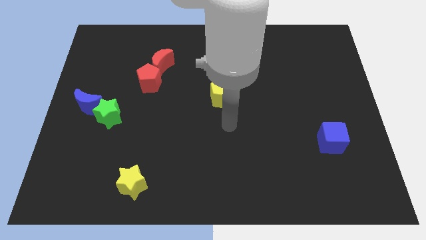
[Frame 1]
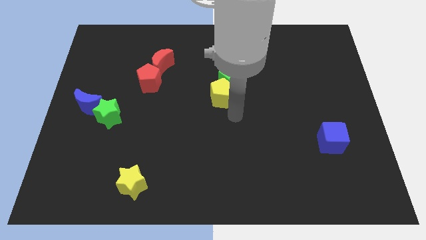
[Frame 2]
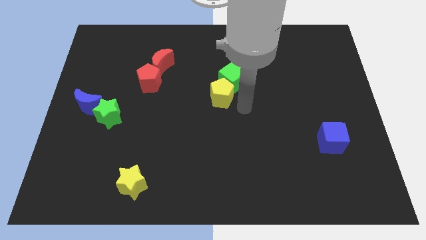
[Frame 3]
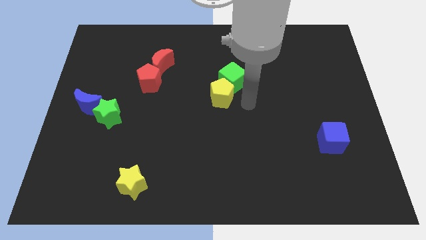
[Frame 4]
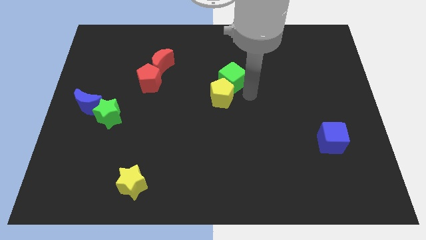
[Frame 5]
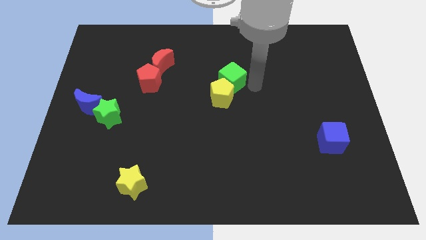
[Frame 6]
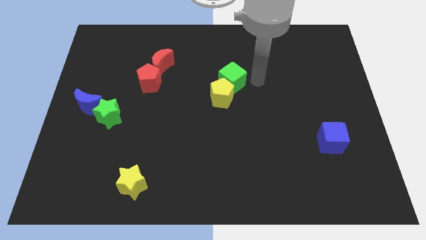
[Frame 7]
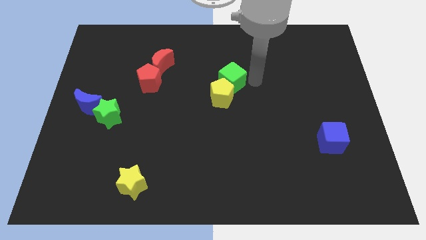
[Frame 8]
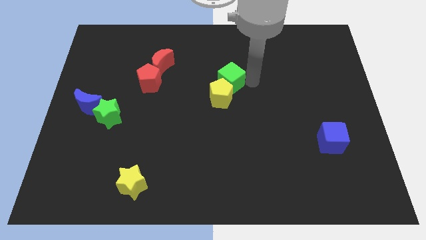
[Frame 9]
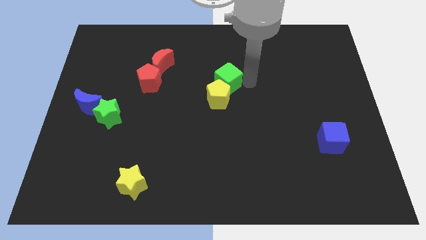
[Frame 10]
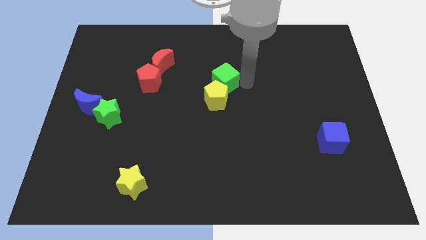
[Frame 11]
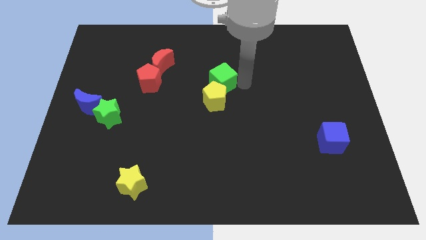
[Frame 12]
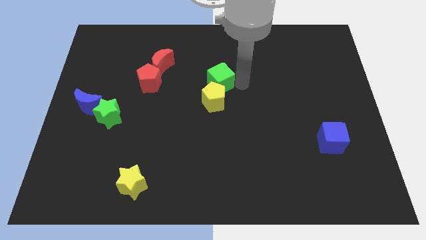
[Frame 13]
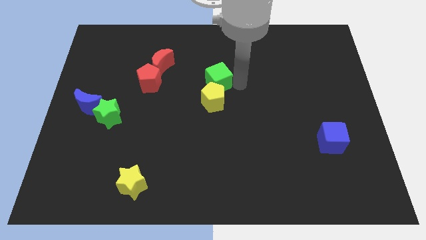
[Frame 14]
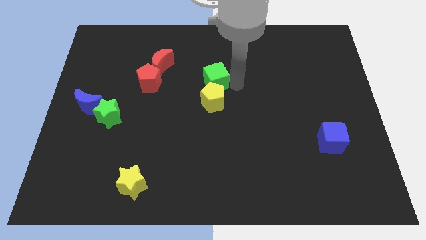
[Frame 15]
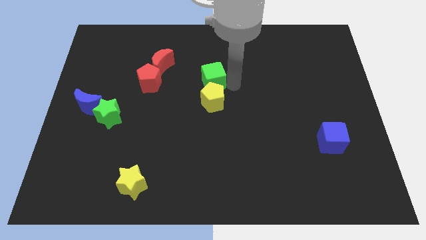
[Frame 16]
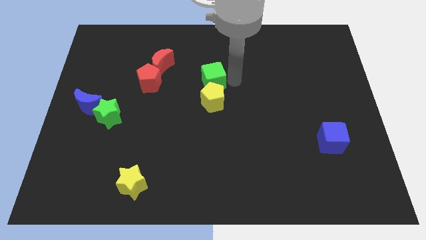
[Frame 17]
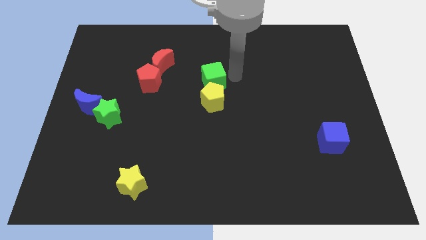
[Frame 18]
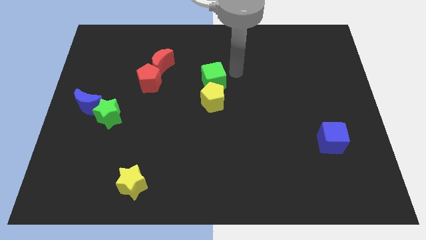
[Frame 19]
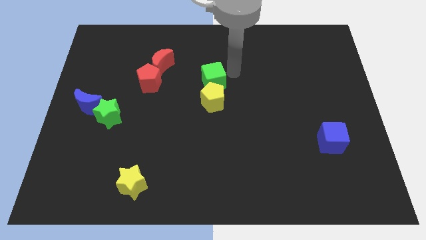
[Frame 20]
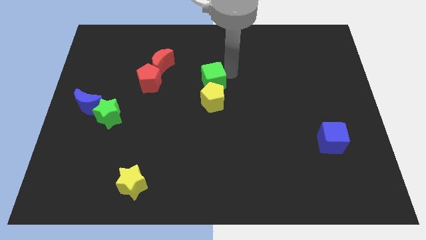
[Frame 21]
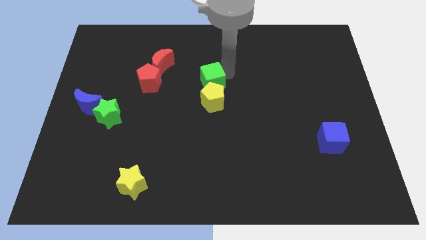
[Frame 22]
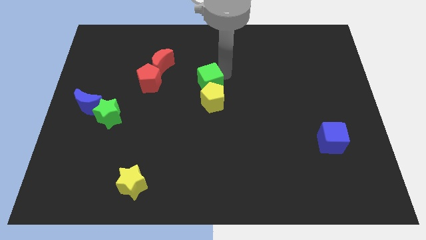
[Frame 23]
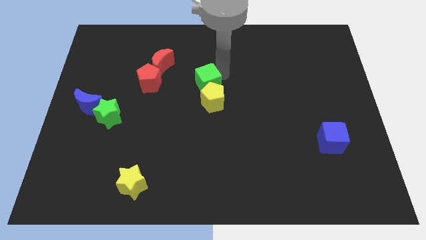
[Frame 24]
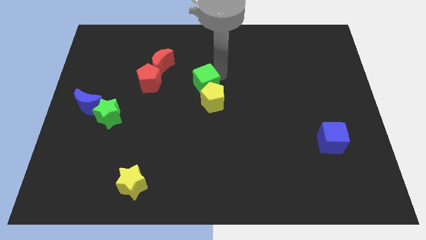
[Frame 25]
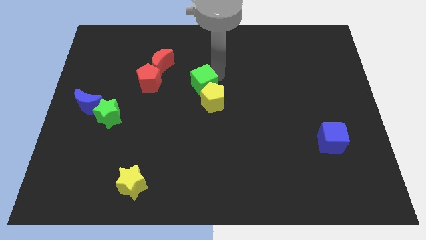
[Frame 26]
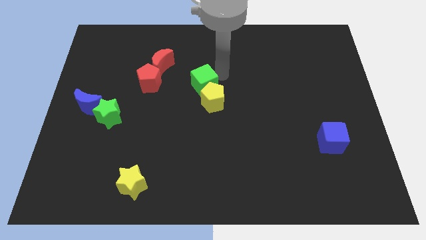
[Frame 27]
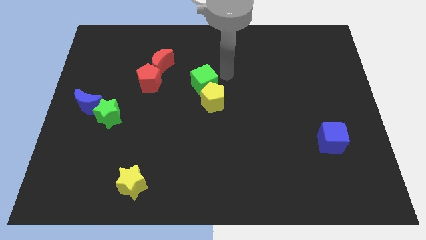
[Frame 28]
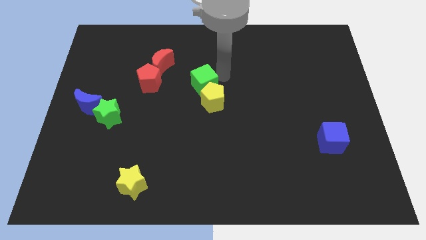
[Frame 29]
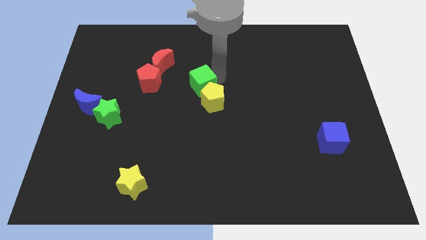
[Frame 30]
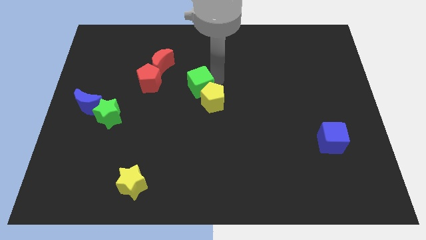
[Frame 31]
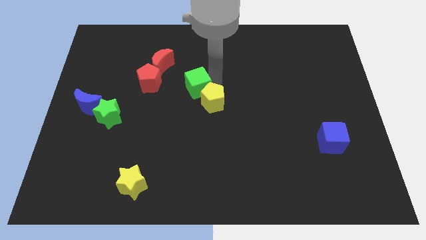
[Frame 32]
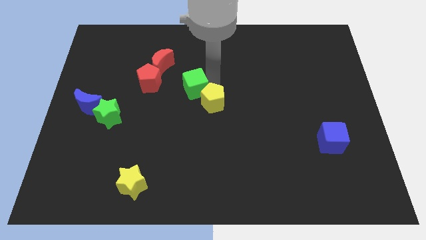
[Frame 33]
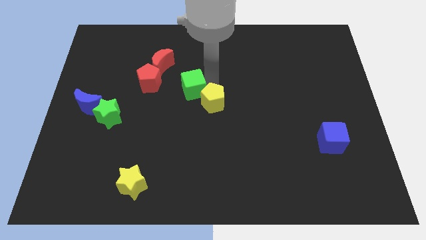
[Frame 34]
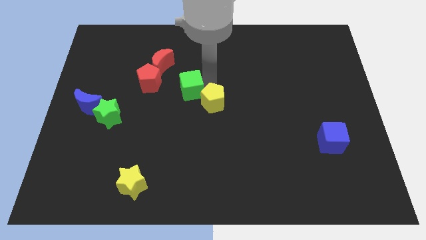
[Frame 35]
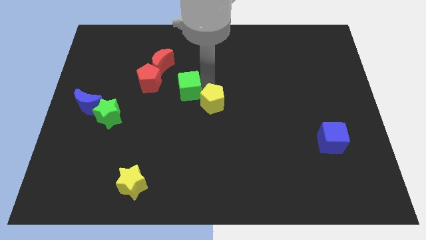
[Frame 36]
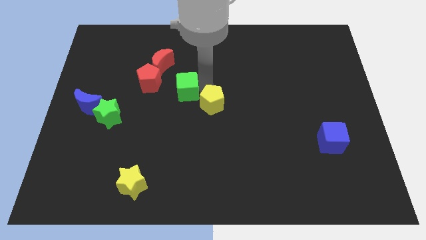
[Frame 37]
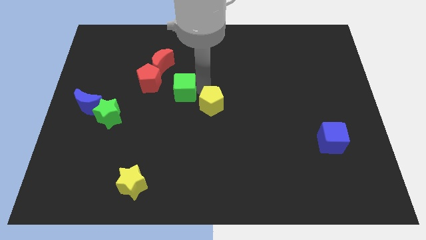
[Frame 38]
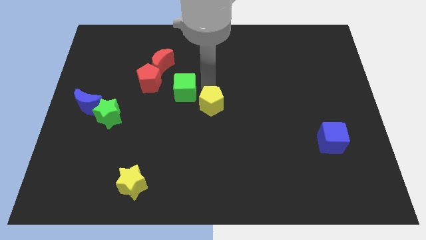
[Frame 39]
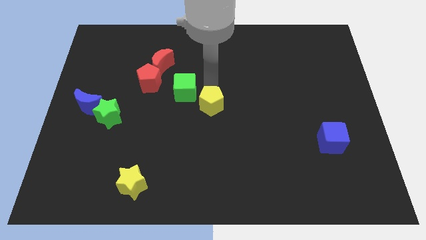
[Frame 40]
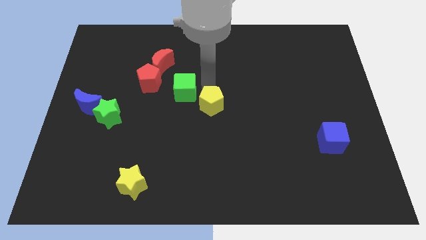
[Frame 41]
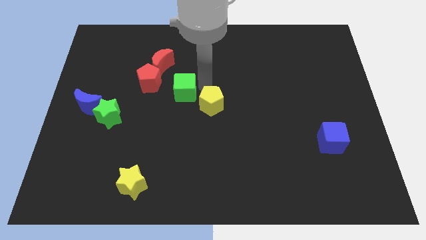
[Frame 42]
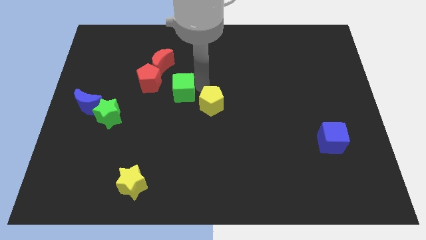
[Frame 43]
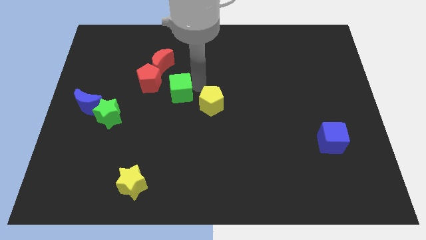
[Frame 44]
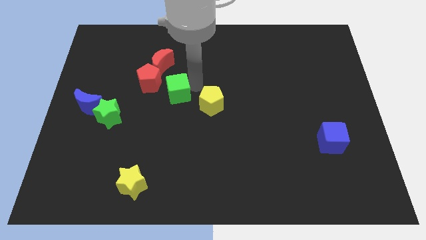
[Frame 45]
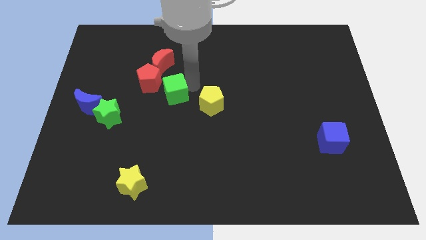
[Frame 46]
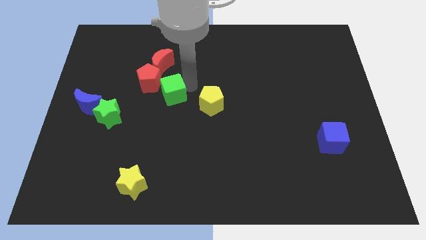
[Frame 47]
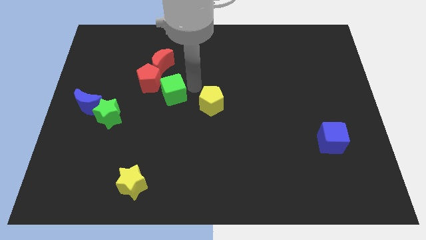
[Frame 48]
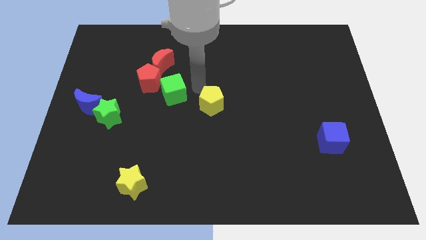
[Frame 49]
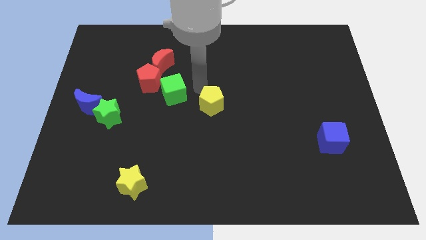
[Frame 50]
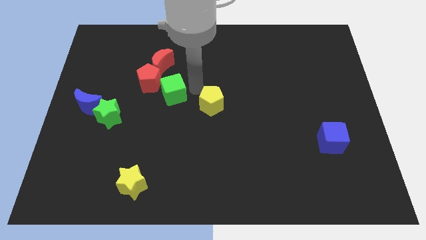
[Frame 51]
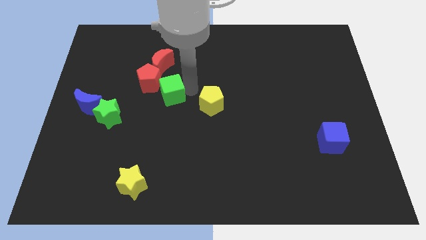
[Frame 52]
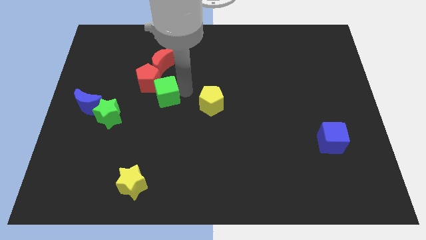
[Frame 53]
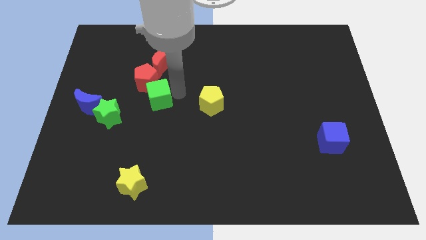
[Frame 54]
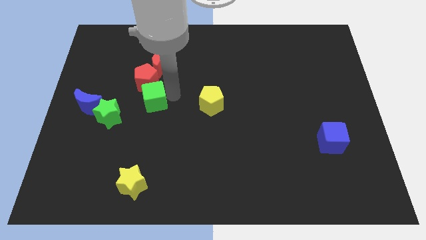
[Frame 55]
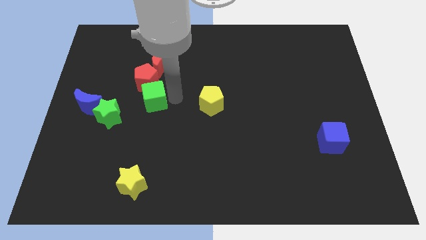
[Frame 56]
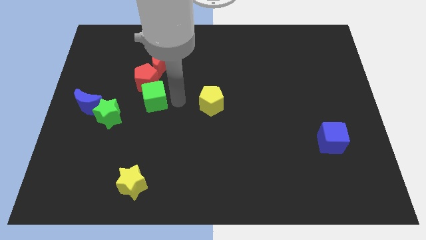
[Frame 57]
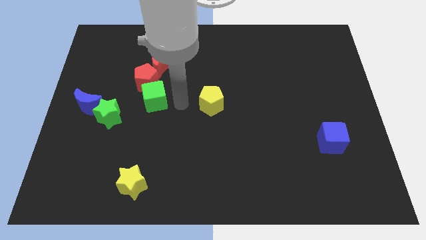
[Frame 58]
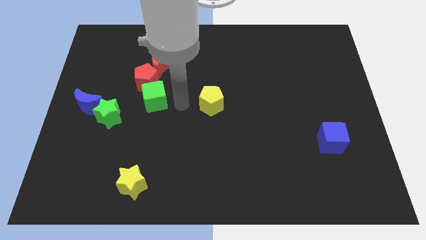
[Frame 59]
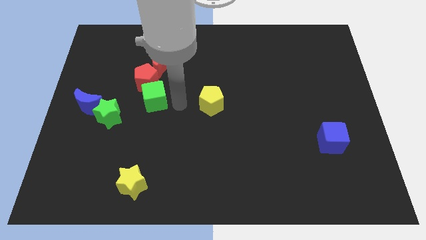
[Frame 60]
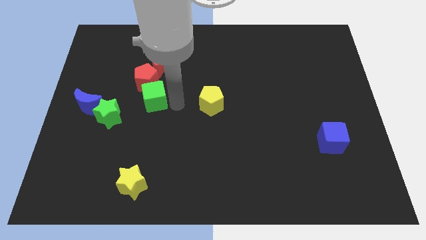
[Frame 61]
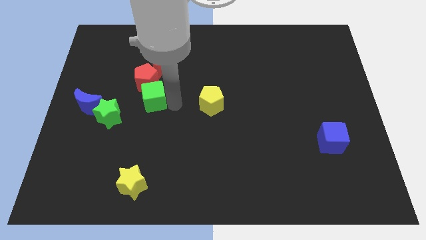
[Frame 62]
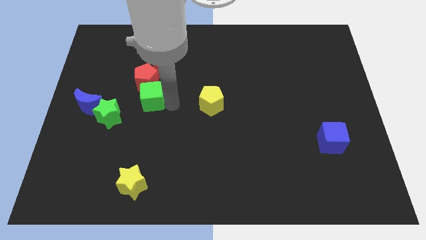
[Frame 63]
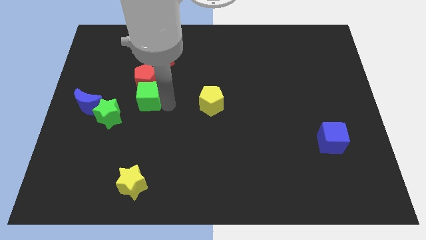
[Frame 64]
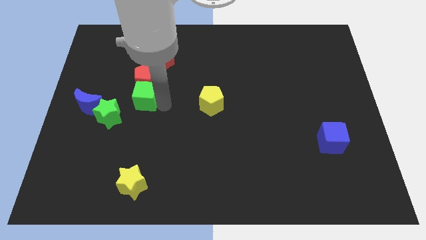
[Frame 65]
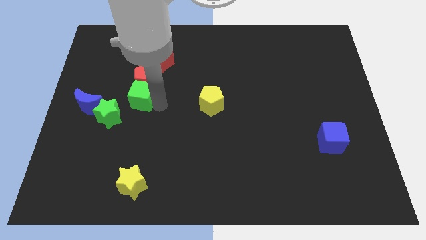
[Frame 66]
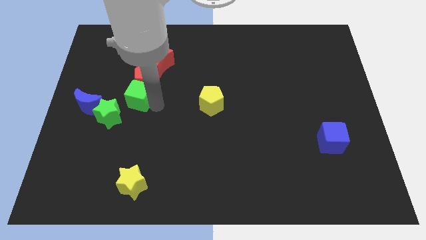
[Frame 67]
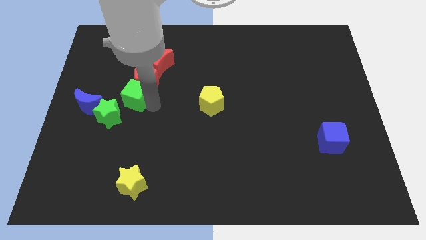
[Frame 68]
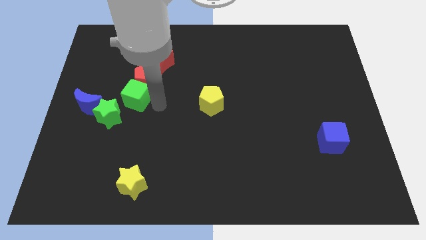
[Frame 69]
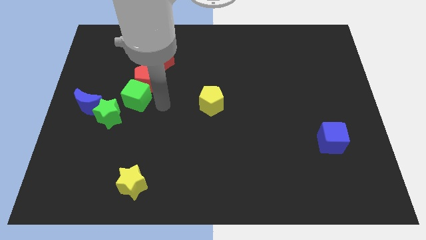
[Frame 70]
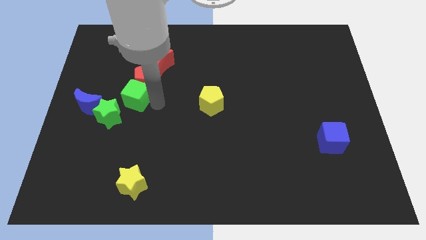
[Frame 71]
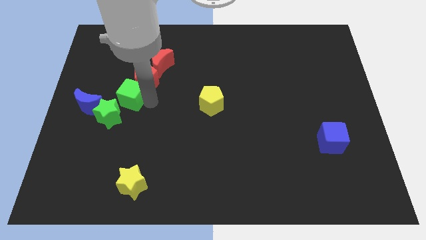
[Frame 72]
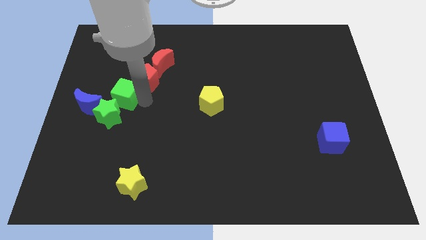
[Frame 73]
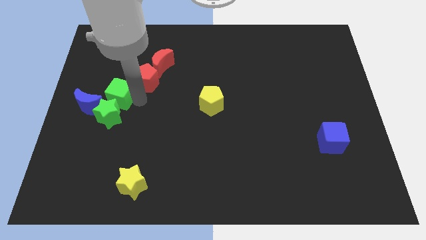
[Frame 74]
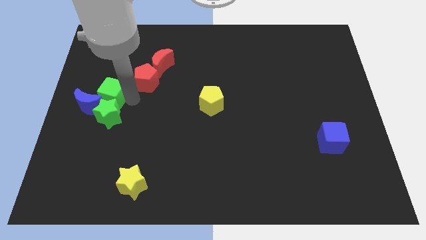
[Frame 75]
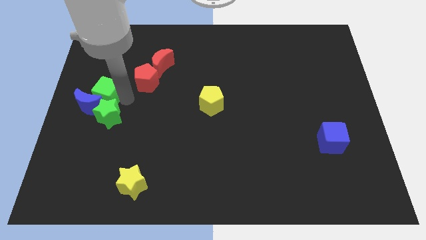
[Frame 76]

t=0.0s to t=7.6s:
put the green cube to the left side of the board
